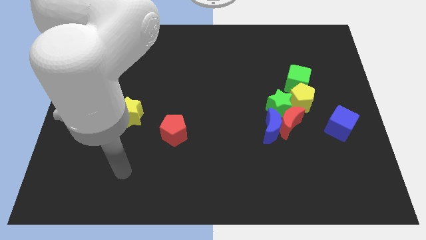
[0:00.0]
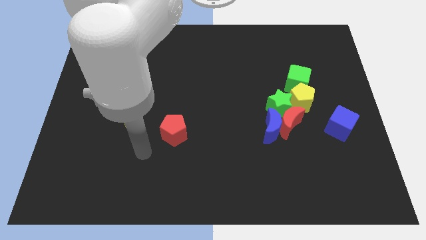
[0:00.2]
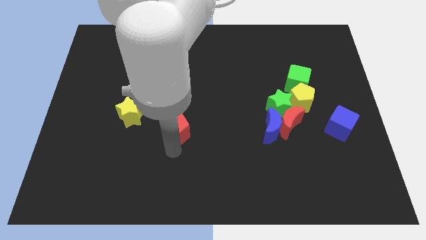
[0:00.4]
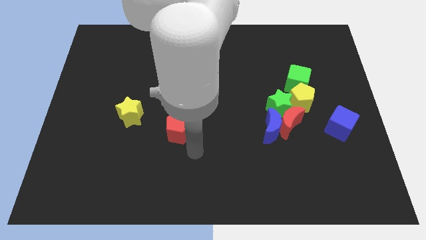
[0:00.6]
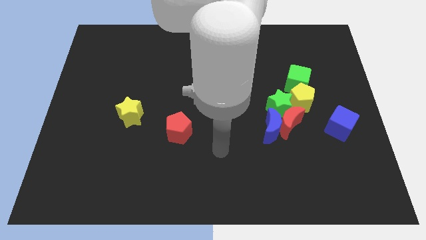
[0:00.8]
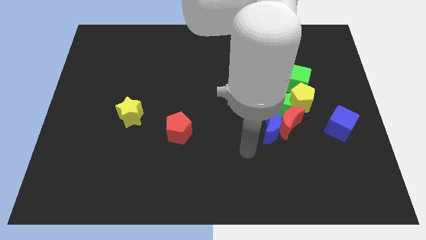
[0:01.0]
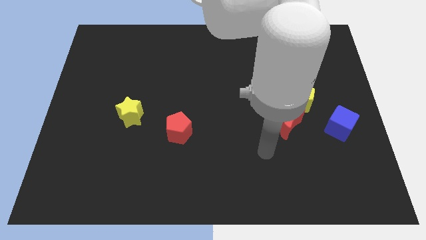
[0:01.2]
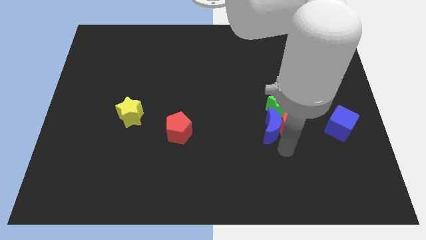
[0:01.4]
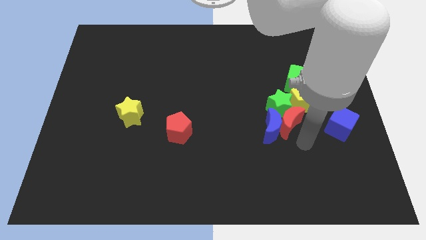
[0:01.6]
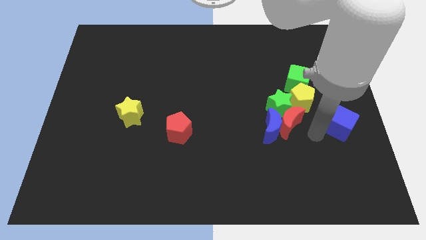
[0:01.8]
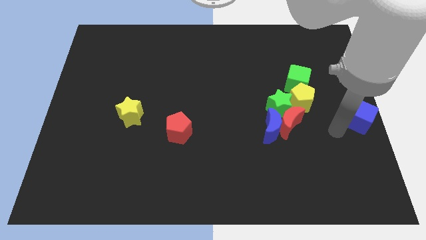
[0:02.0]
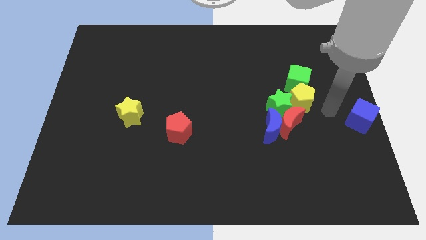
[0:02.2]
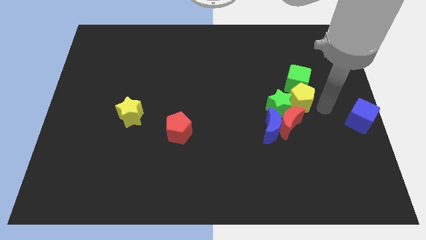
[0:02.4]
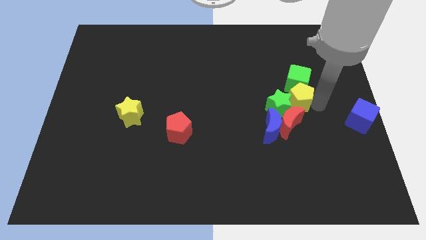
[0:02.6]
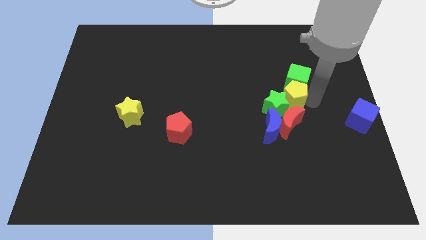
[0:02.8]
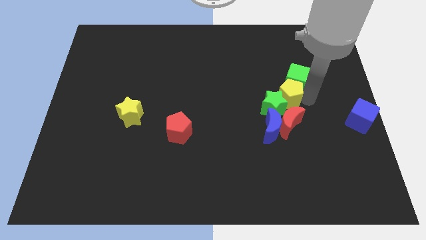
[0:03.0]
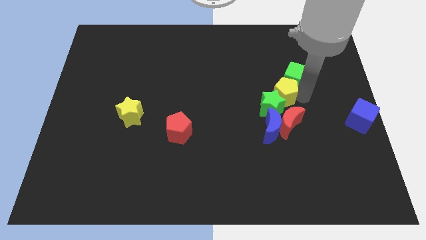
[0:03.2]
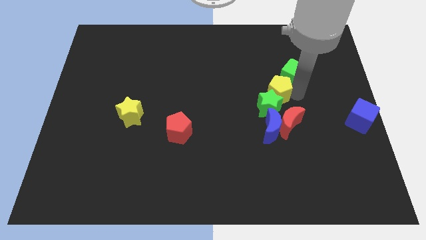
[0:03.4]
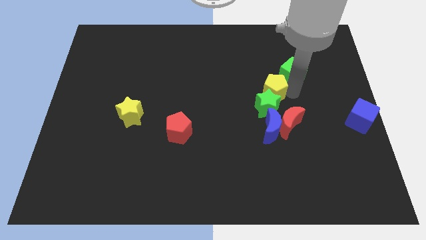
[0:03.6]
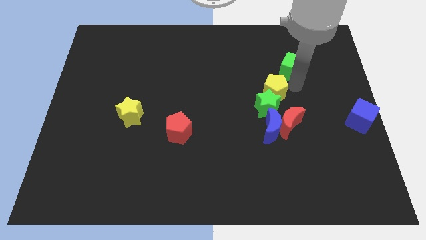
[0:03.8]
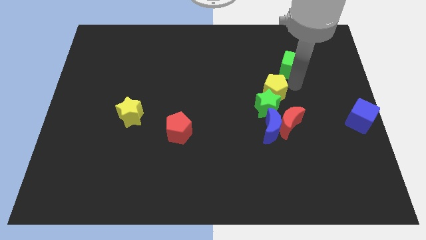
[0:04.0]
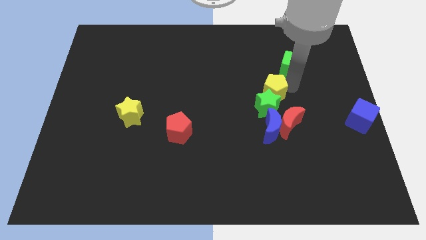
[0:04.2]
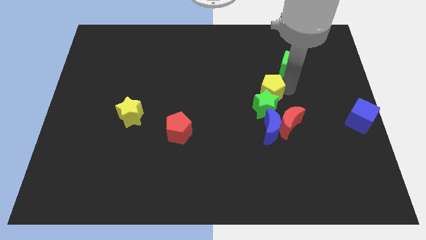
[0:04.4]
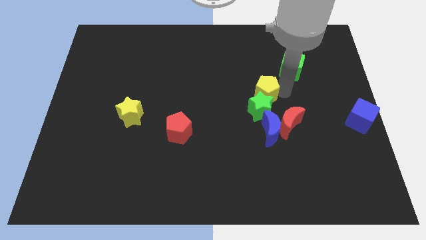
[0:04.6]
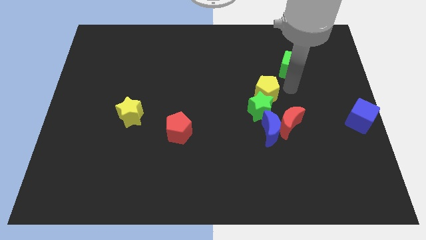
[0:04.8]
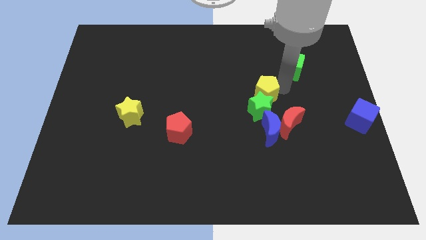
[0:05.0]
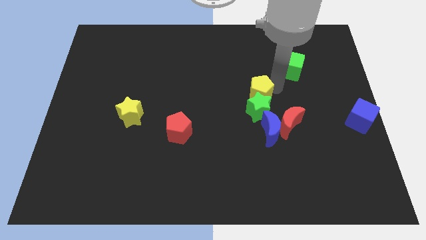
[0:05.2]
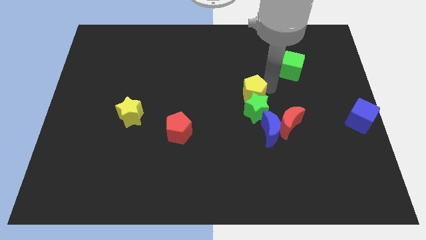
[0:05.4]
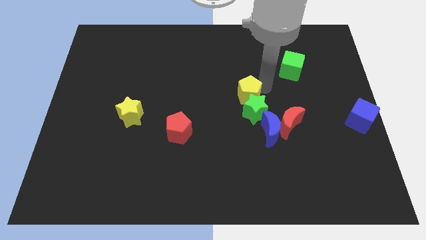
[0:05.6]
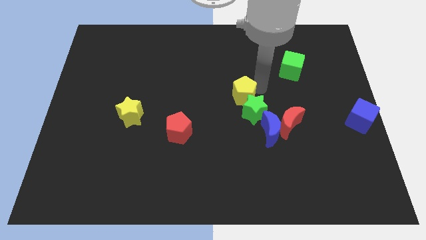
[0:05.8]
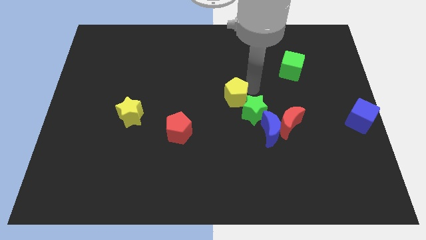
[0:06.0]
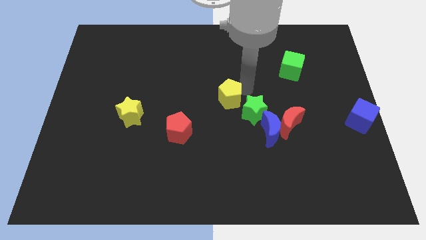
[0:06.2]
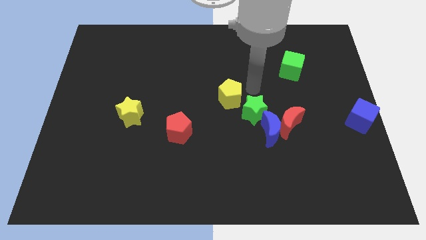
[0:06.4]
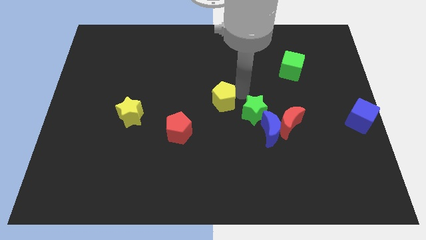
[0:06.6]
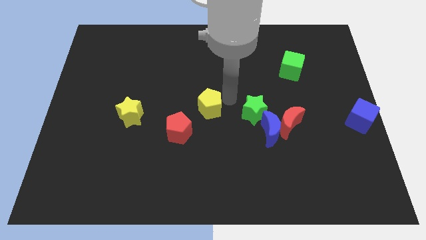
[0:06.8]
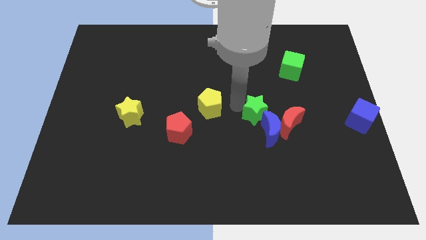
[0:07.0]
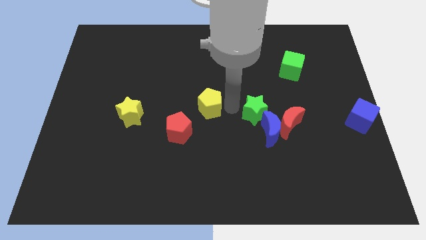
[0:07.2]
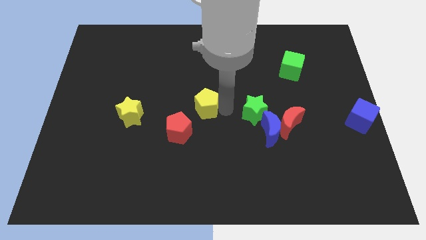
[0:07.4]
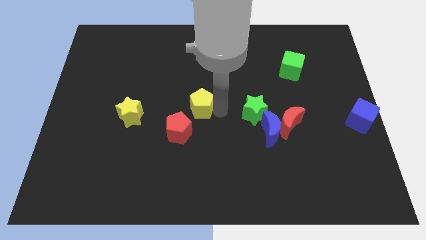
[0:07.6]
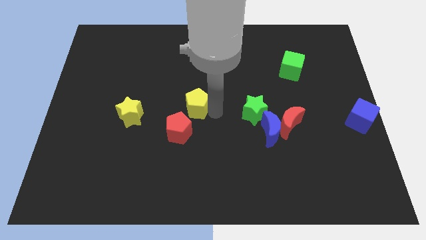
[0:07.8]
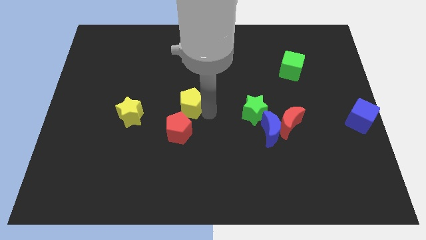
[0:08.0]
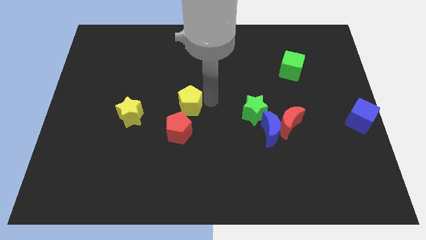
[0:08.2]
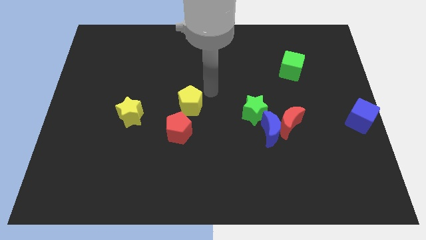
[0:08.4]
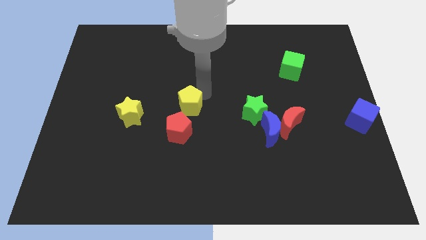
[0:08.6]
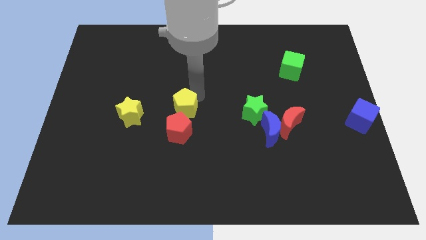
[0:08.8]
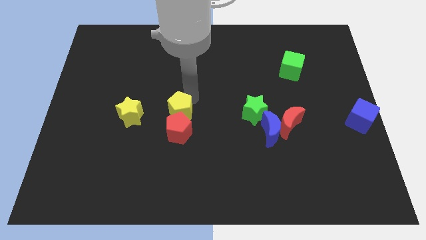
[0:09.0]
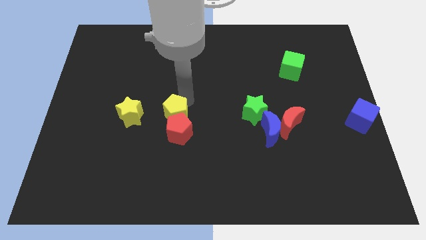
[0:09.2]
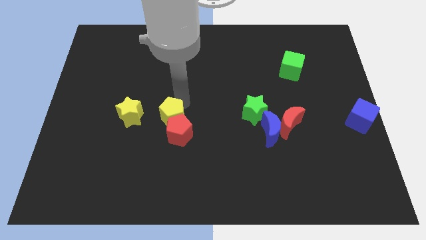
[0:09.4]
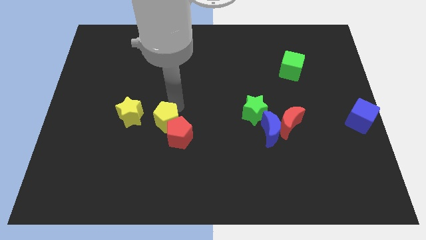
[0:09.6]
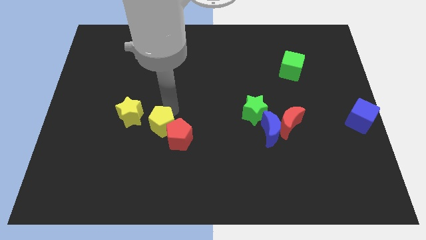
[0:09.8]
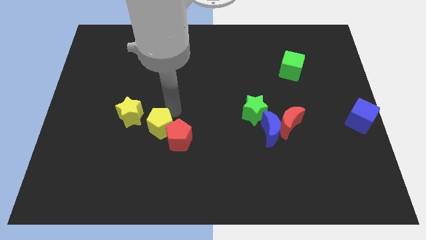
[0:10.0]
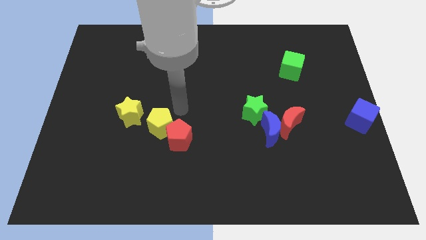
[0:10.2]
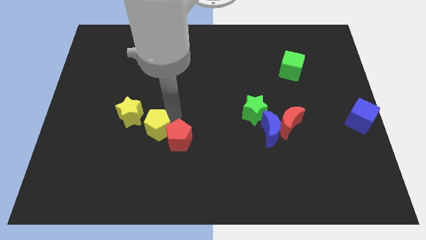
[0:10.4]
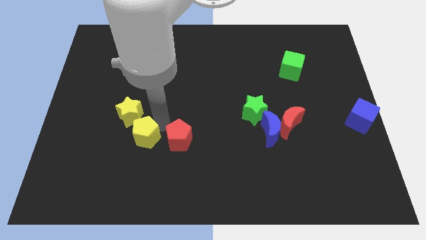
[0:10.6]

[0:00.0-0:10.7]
slide the yellow pentagon to the bottom of the yellow star

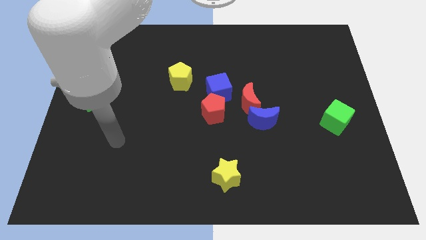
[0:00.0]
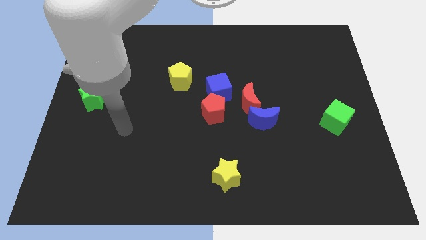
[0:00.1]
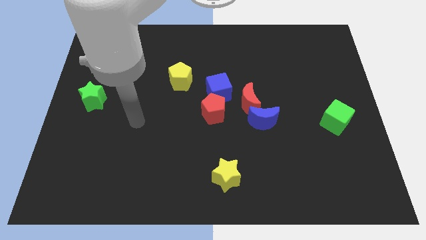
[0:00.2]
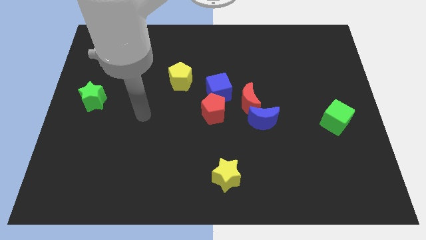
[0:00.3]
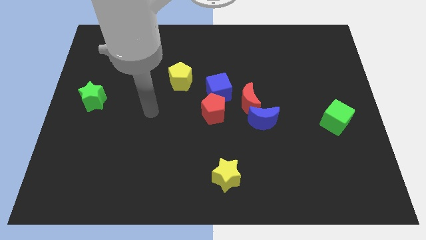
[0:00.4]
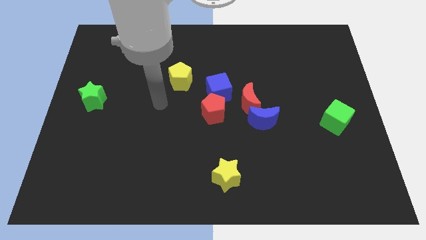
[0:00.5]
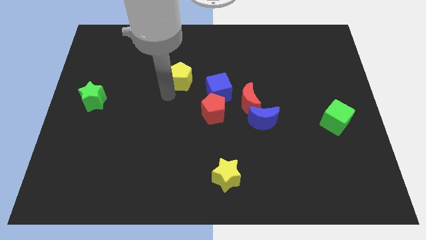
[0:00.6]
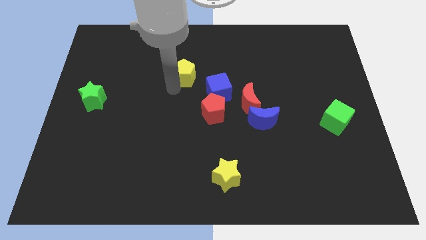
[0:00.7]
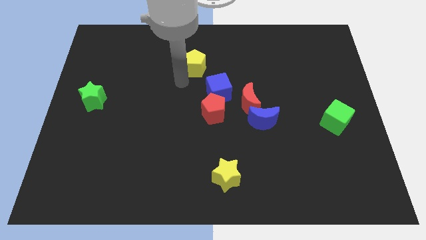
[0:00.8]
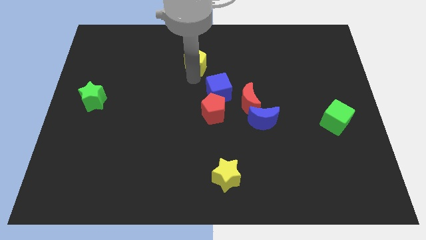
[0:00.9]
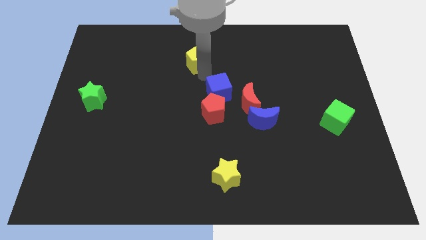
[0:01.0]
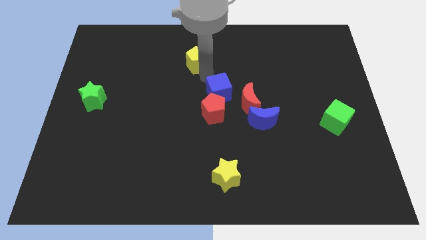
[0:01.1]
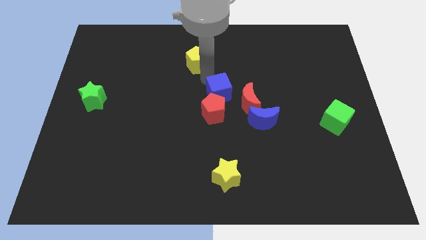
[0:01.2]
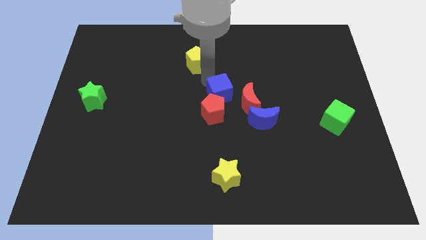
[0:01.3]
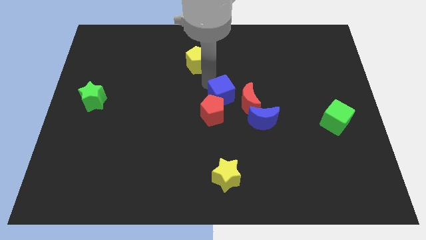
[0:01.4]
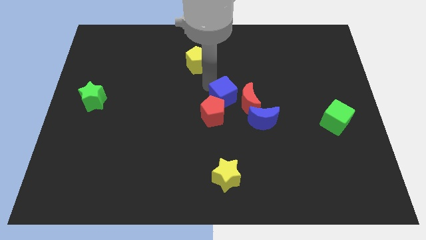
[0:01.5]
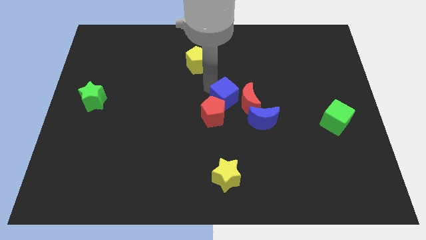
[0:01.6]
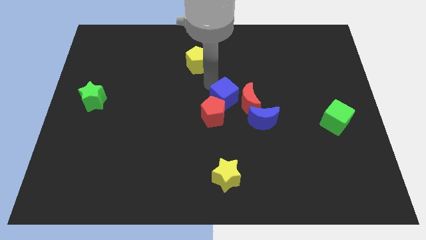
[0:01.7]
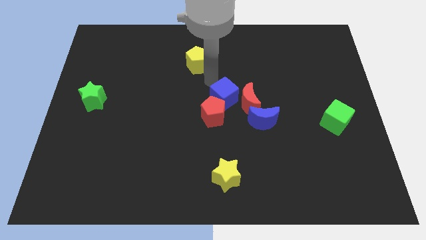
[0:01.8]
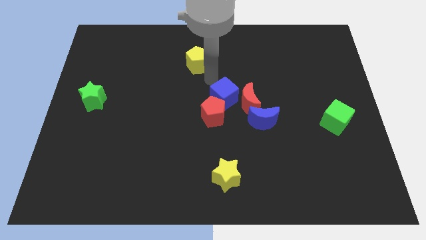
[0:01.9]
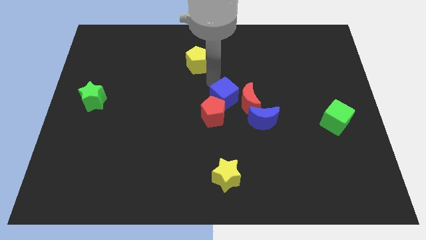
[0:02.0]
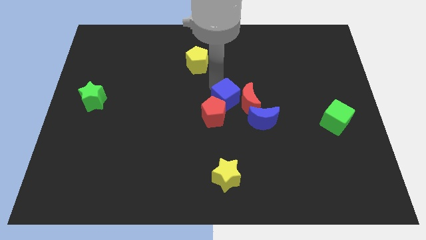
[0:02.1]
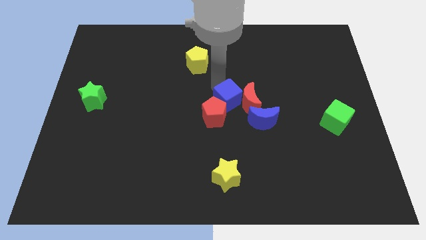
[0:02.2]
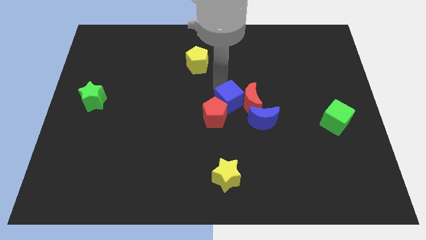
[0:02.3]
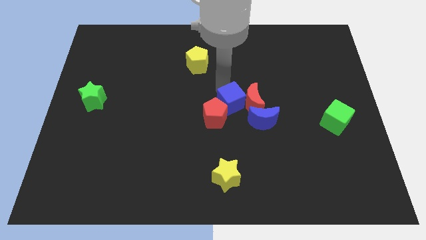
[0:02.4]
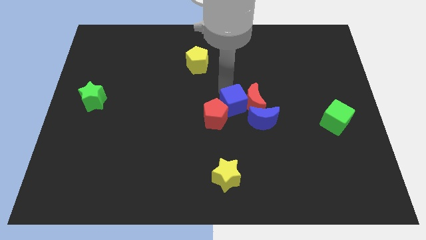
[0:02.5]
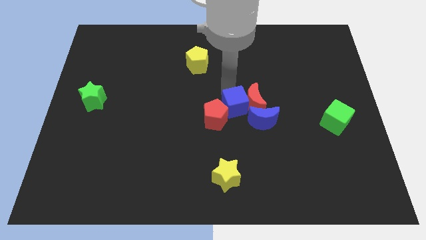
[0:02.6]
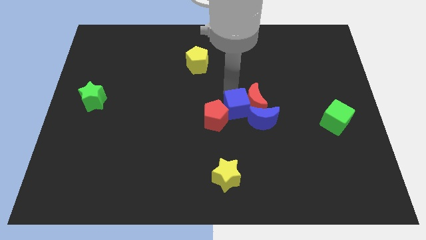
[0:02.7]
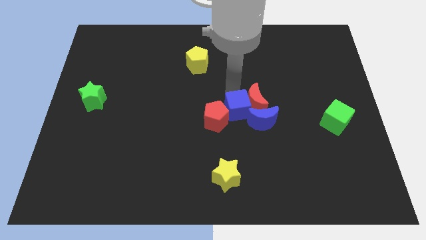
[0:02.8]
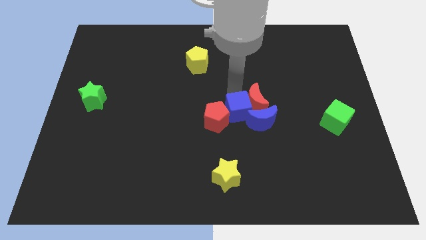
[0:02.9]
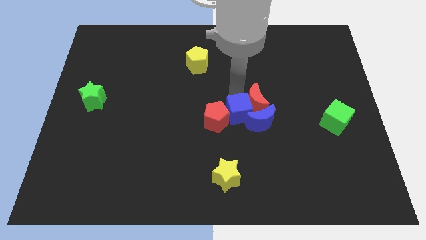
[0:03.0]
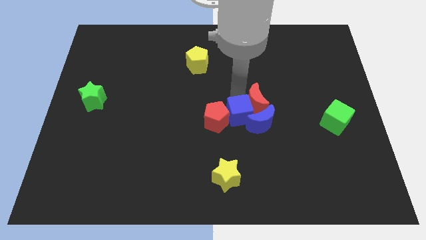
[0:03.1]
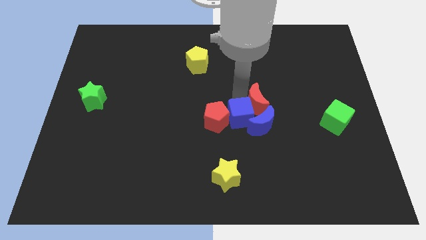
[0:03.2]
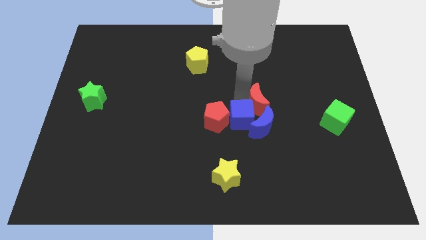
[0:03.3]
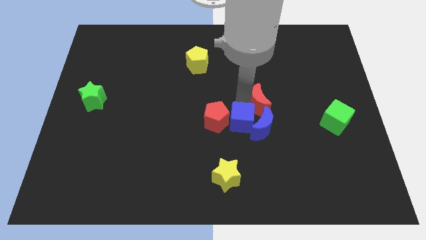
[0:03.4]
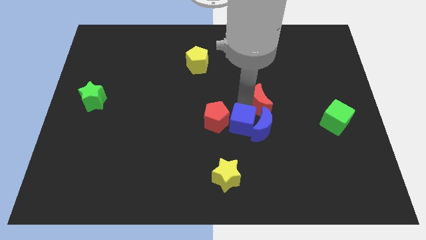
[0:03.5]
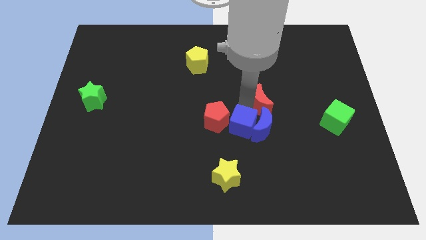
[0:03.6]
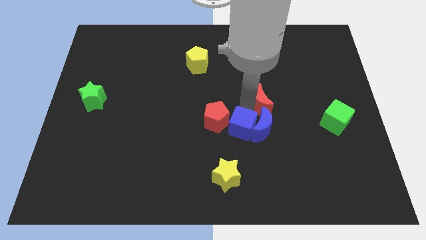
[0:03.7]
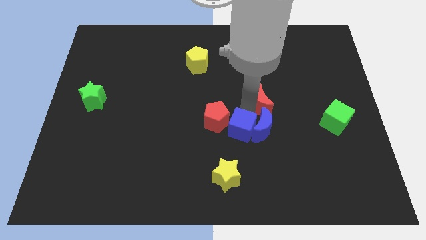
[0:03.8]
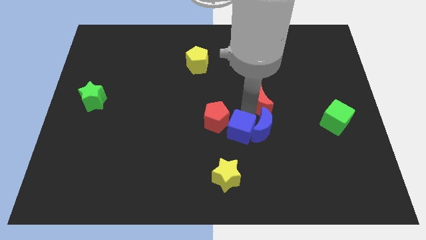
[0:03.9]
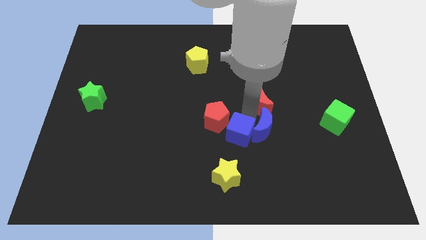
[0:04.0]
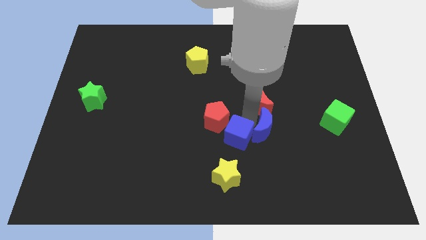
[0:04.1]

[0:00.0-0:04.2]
slide the blue cube to the bottom of the red pentagon
